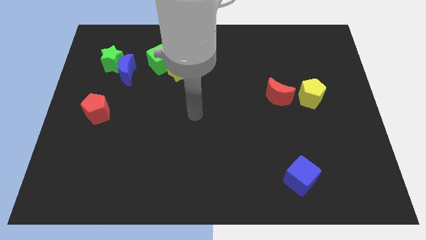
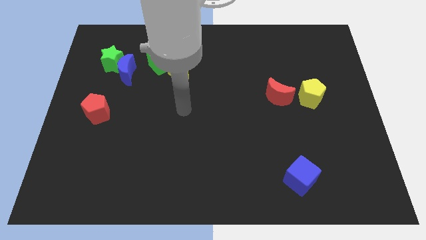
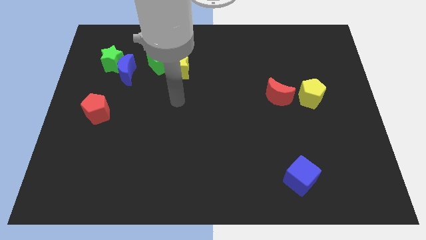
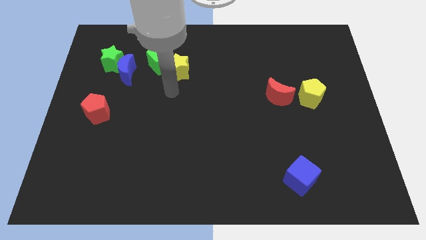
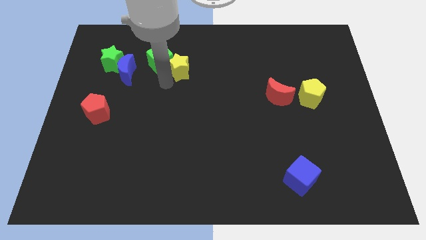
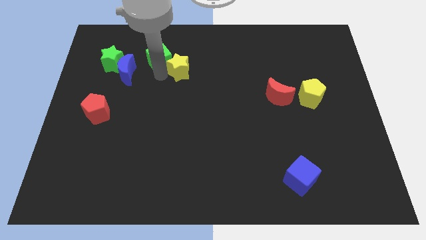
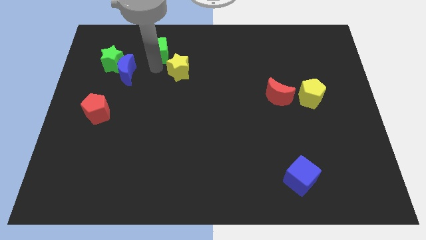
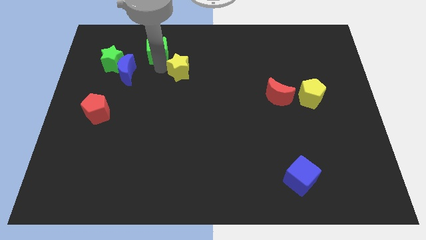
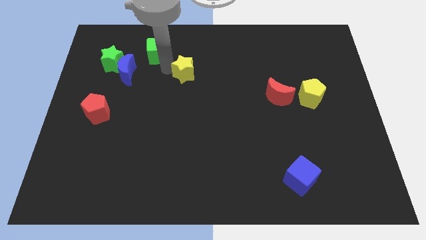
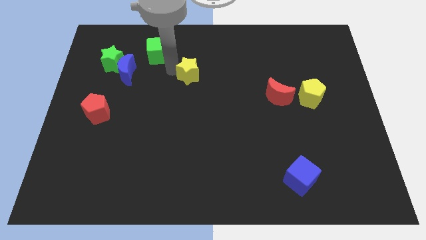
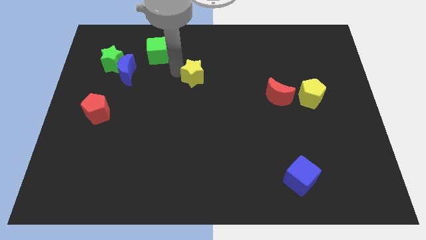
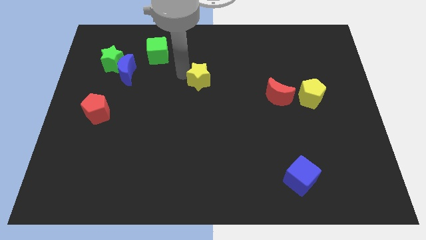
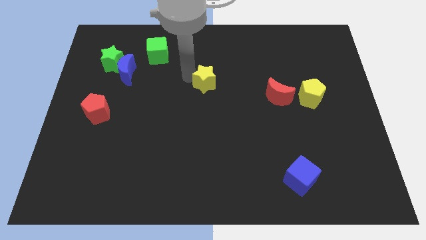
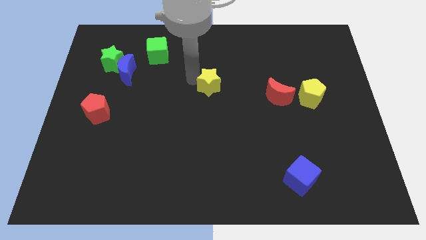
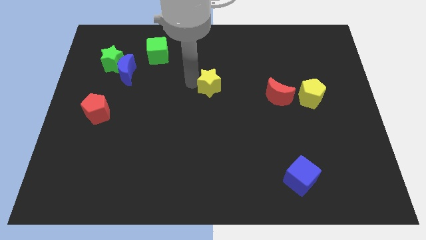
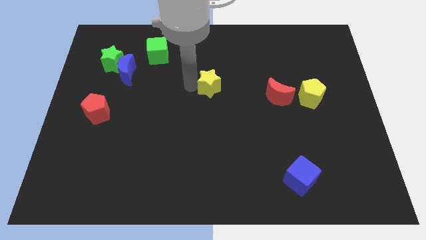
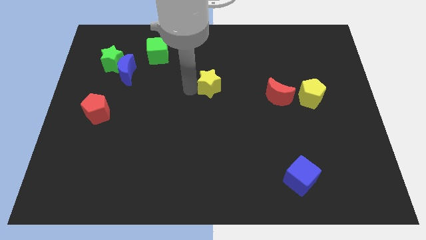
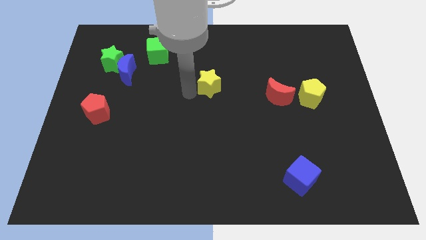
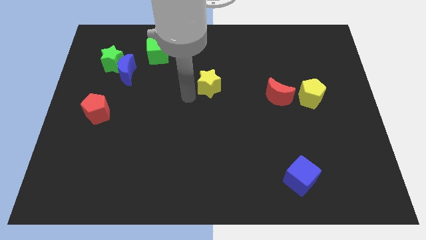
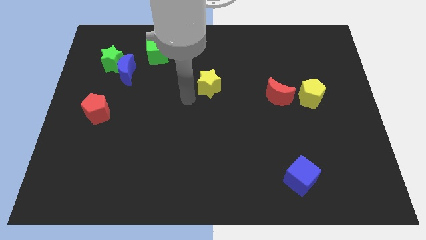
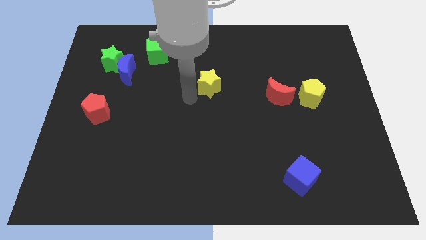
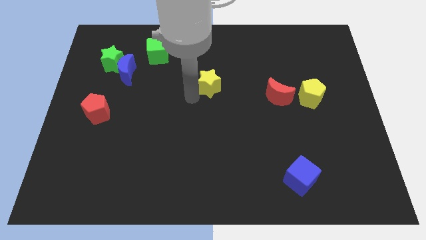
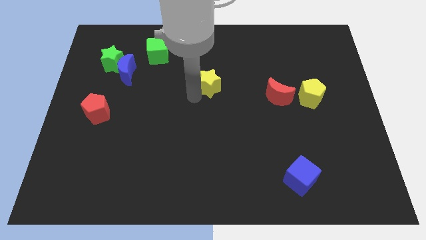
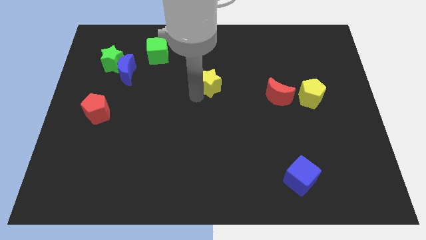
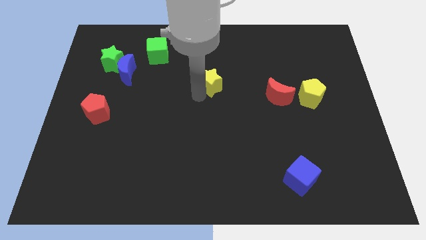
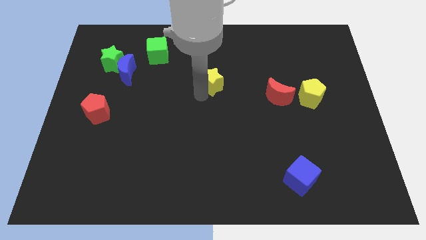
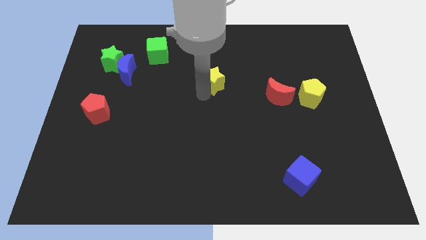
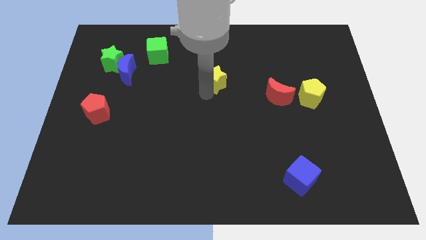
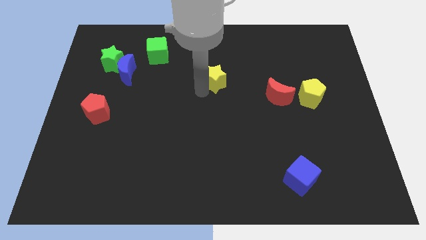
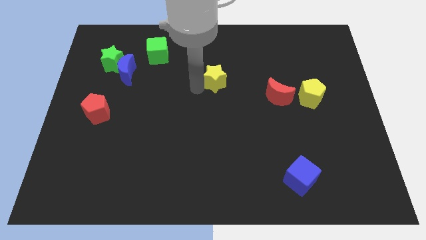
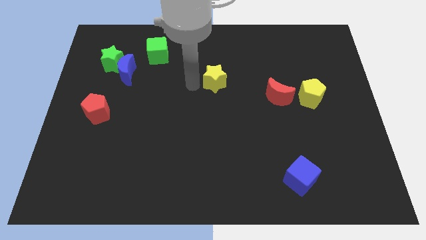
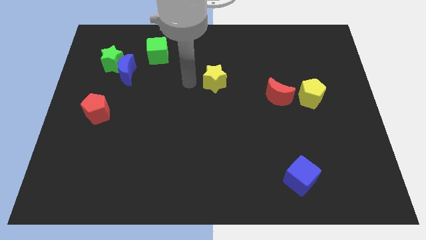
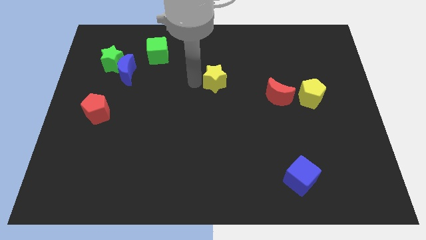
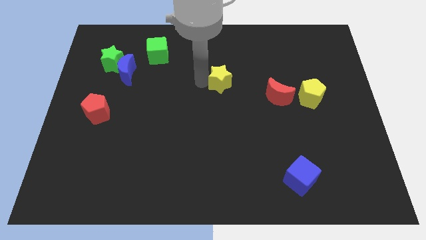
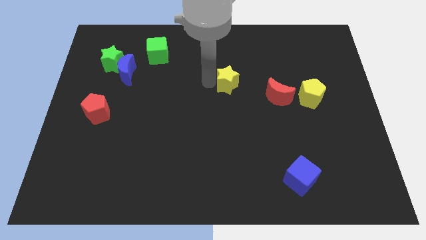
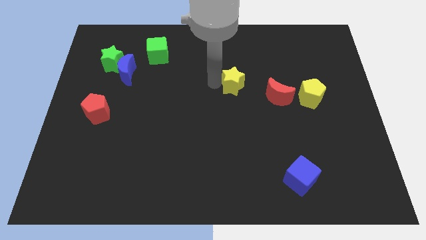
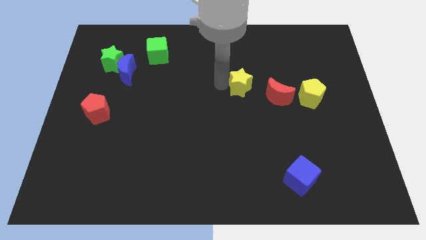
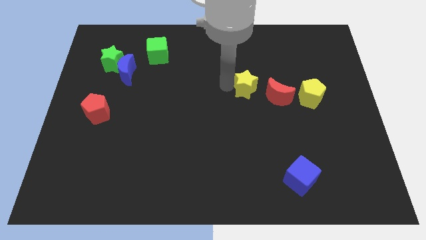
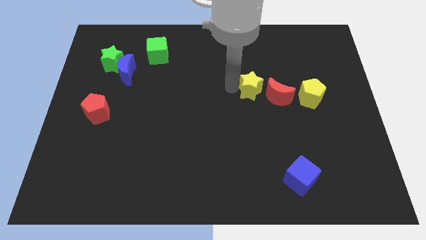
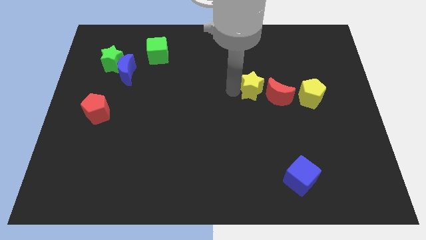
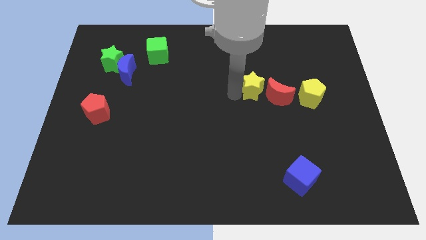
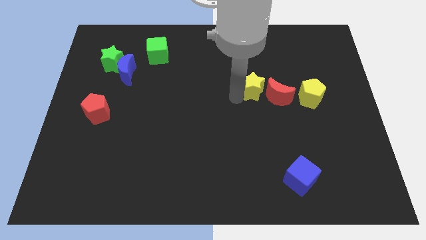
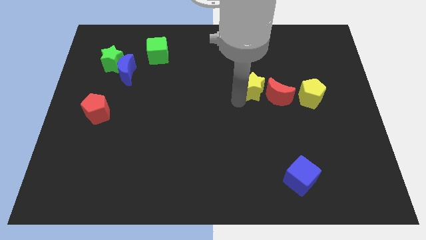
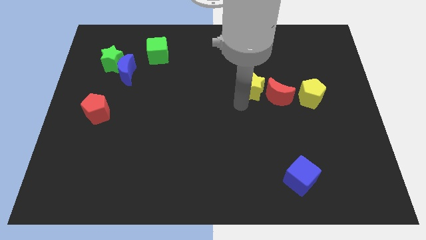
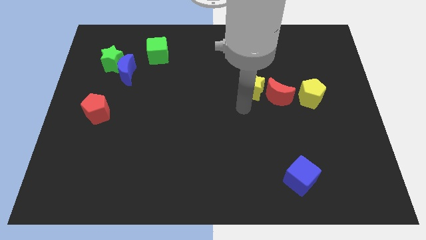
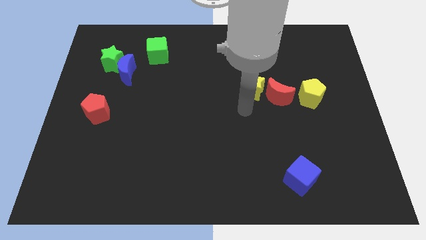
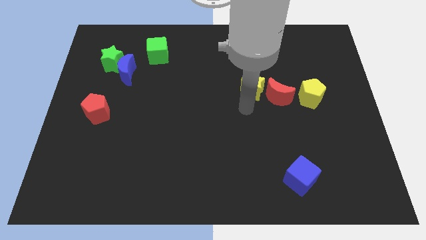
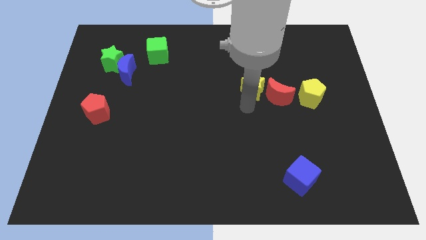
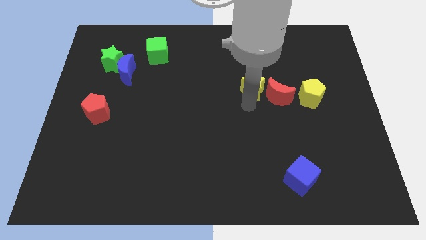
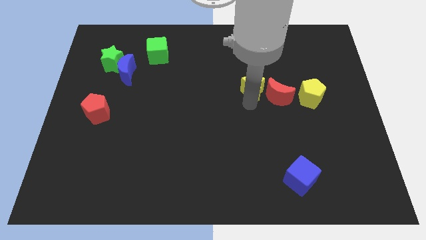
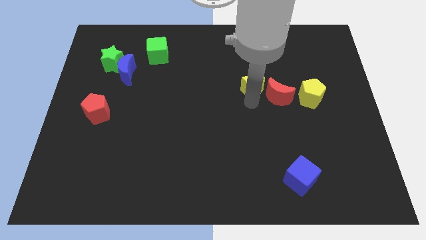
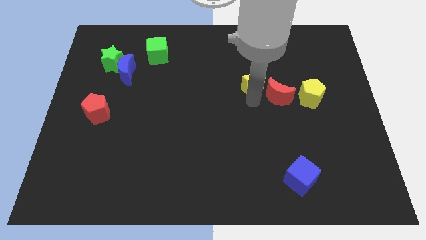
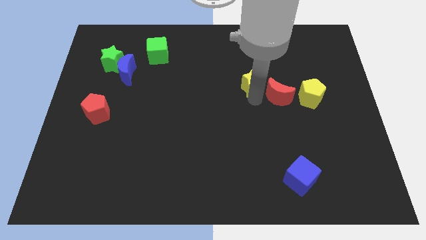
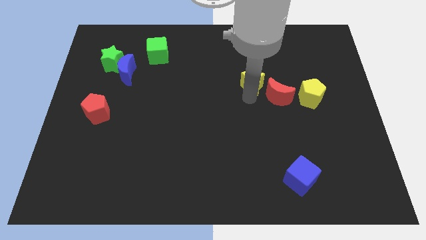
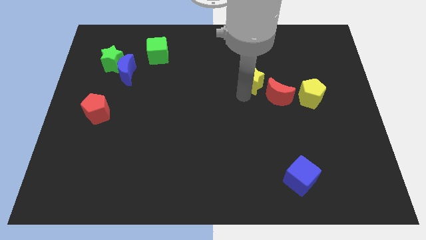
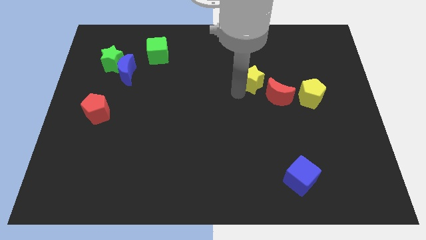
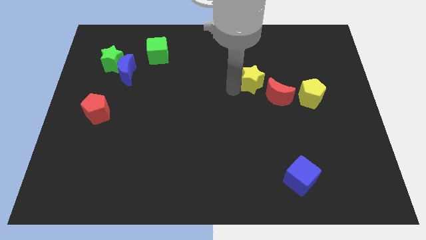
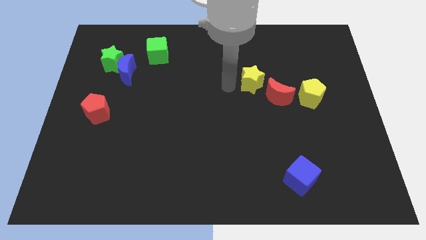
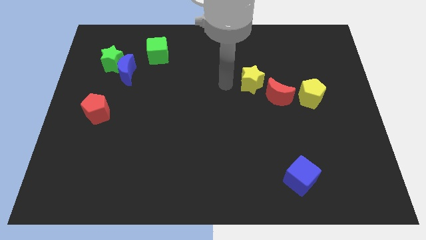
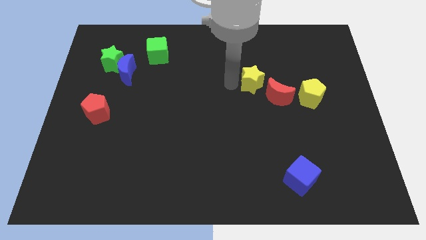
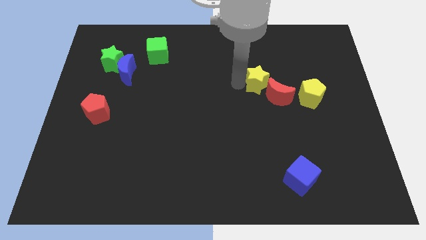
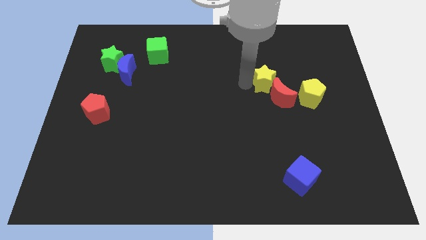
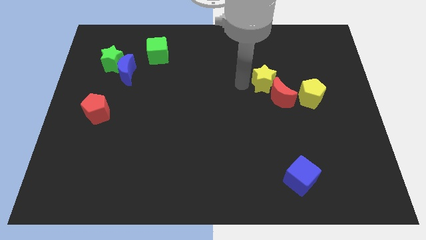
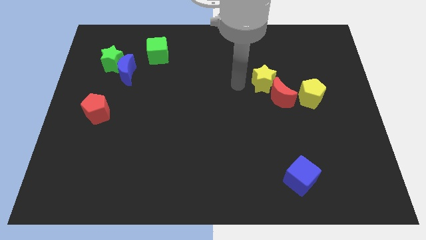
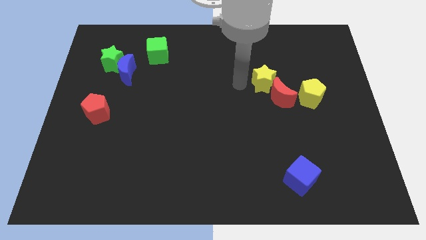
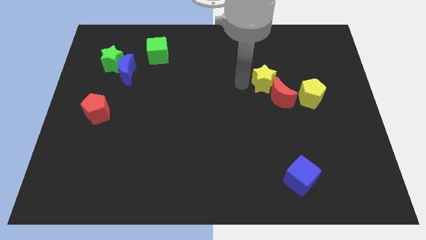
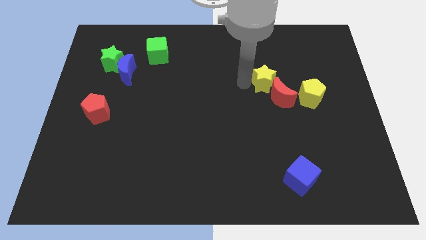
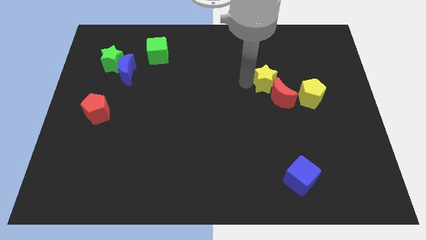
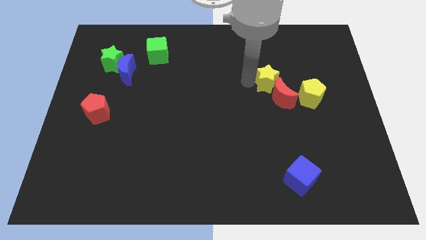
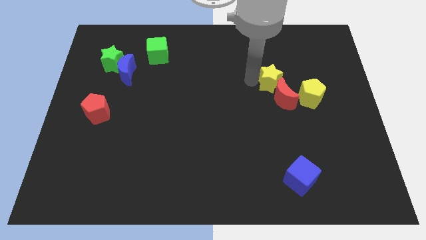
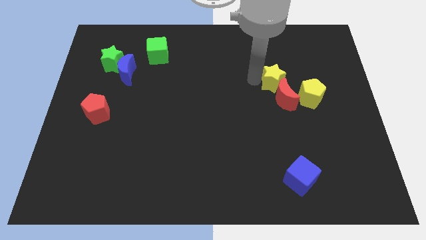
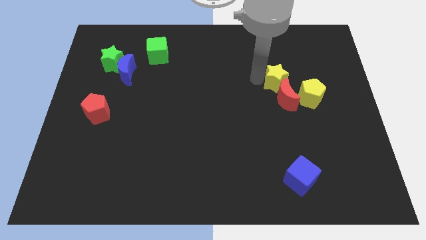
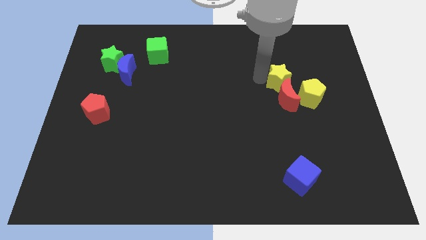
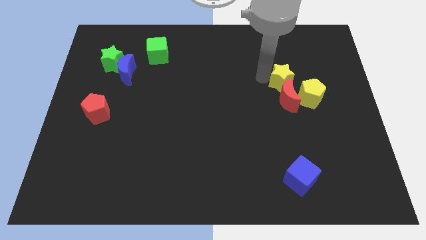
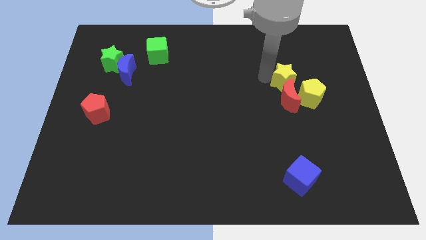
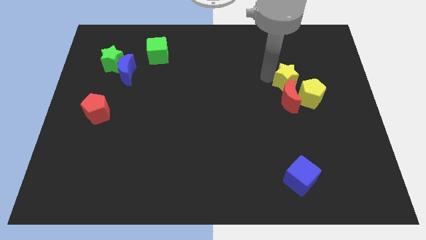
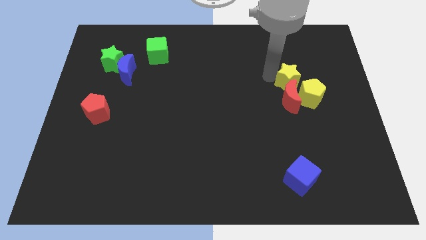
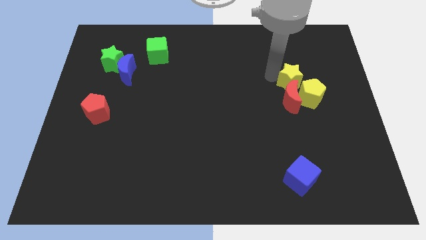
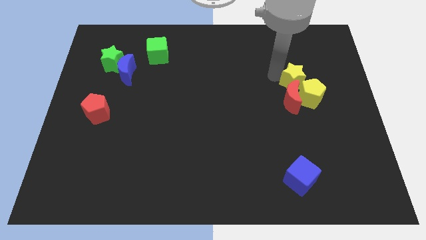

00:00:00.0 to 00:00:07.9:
move the yellow star to the yellow pentagon

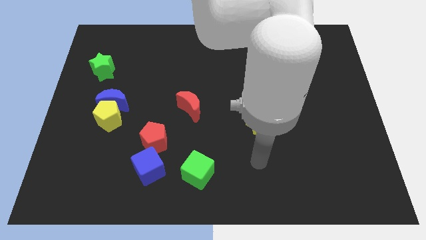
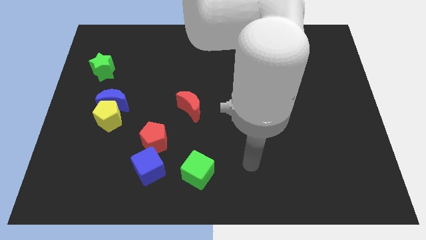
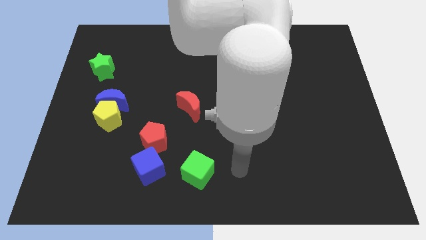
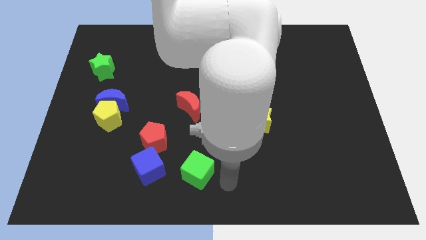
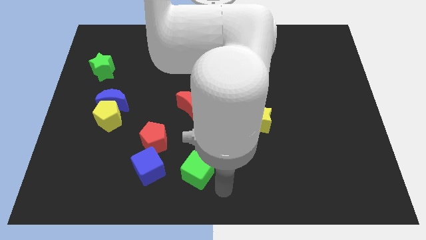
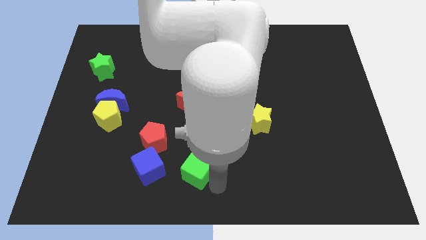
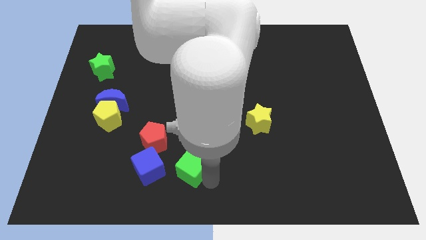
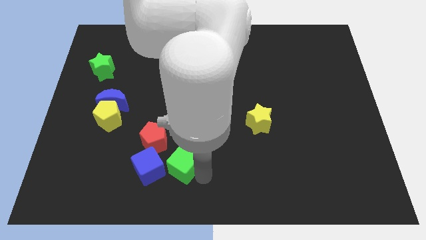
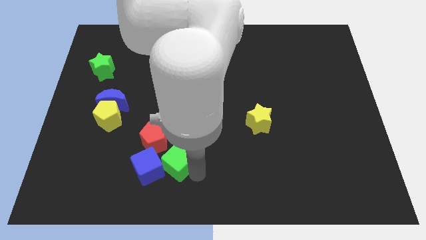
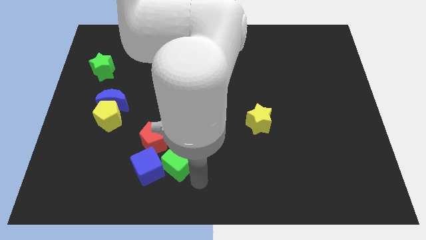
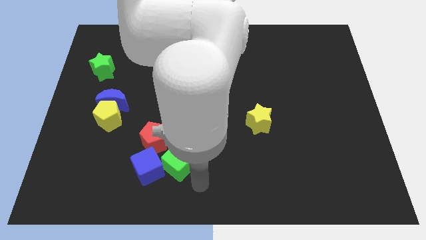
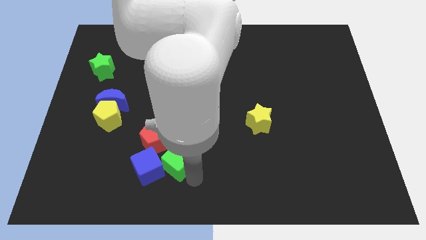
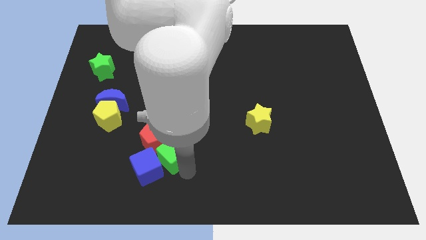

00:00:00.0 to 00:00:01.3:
move the green cube close to the red pentagon
